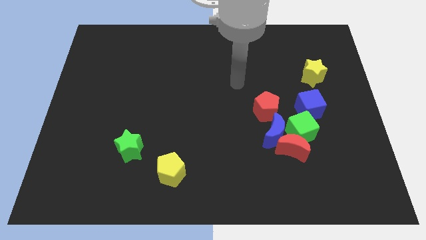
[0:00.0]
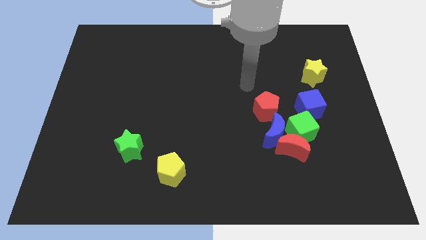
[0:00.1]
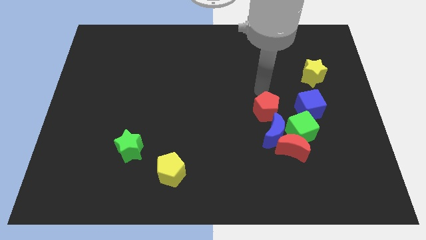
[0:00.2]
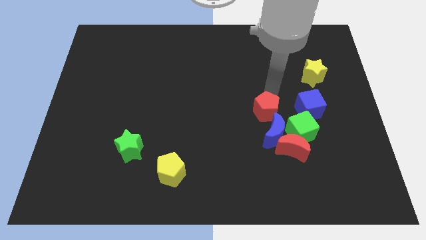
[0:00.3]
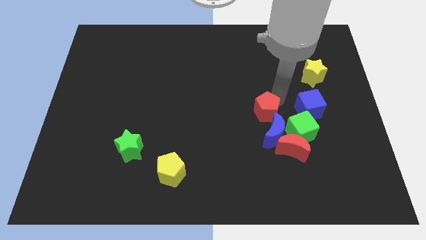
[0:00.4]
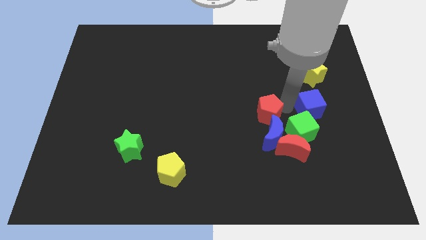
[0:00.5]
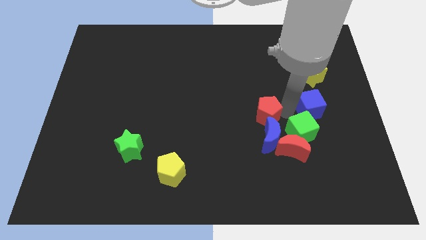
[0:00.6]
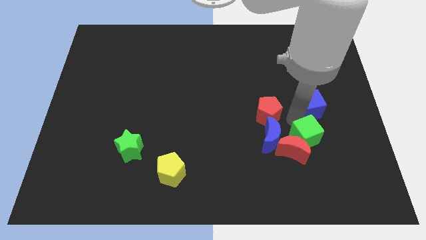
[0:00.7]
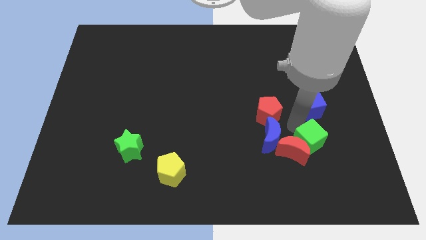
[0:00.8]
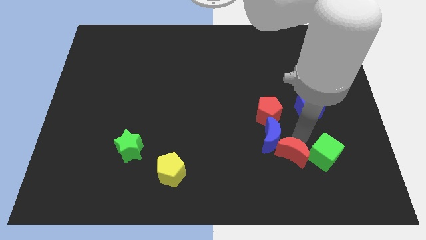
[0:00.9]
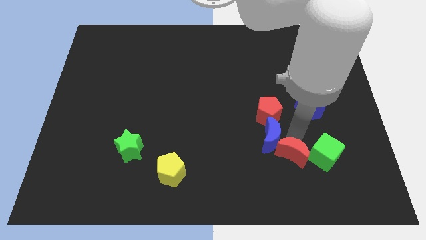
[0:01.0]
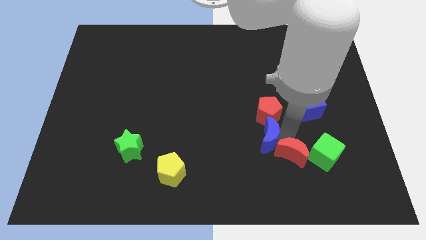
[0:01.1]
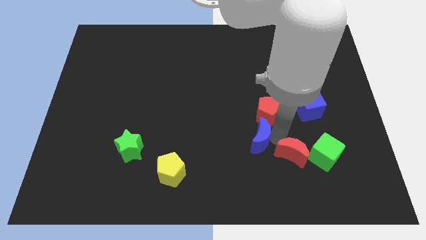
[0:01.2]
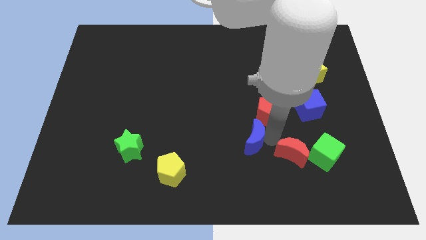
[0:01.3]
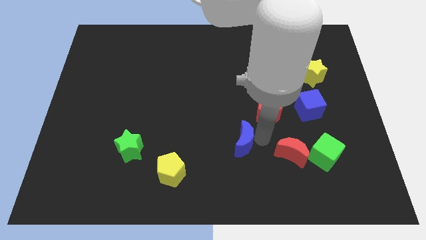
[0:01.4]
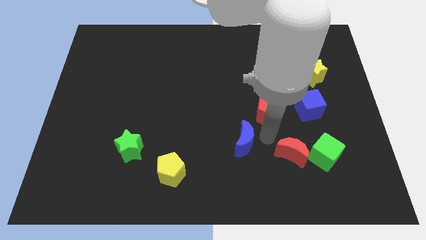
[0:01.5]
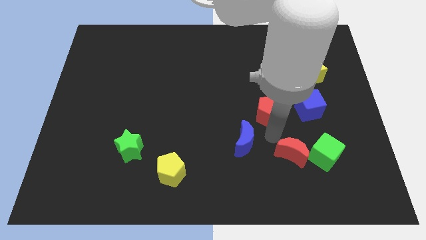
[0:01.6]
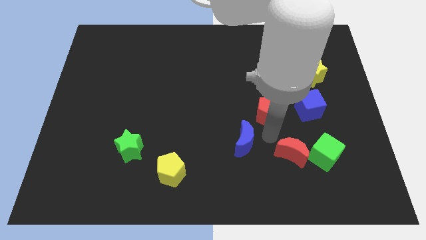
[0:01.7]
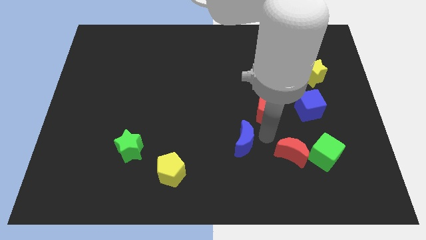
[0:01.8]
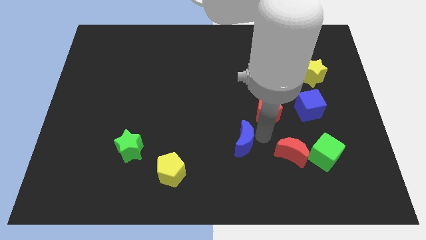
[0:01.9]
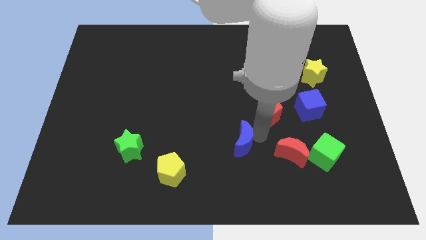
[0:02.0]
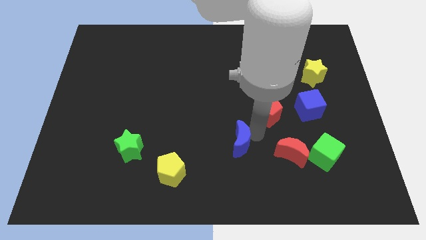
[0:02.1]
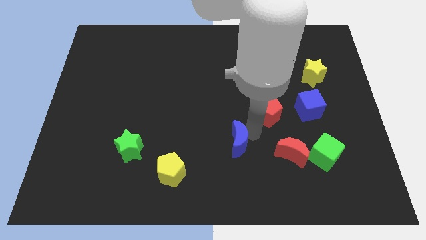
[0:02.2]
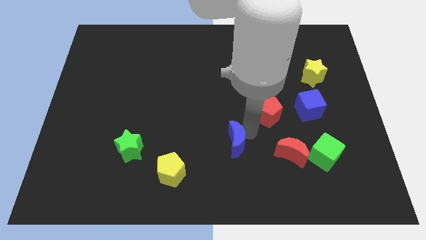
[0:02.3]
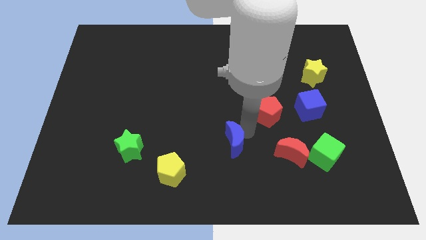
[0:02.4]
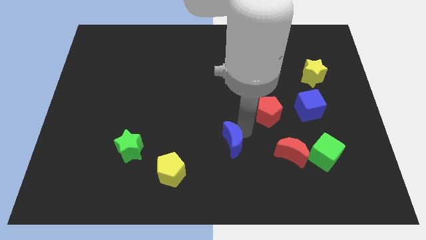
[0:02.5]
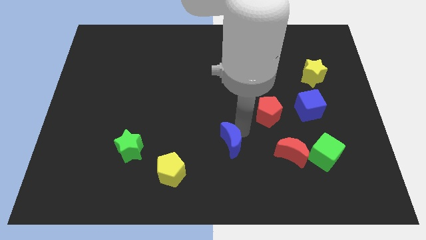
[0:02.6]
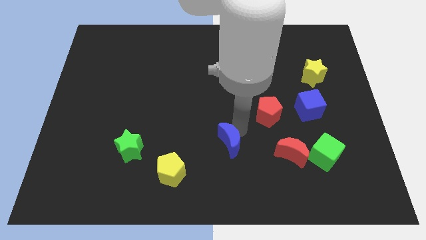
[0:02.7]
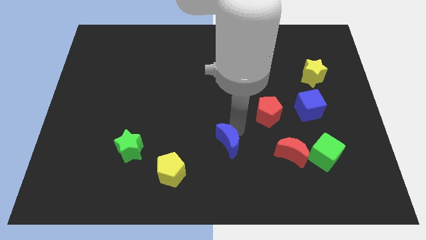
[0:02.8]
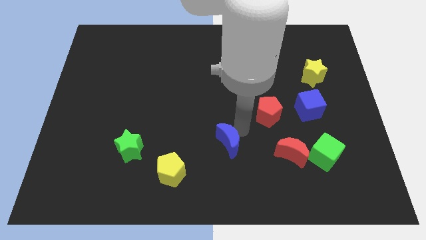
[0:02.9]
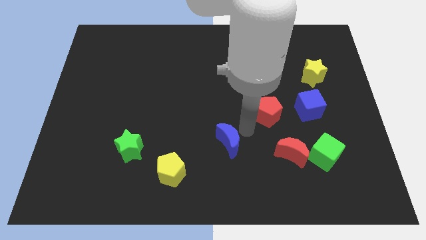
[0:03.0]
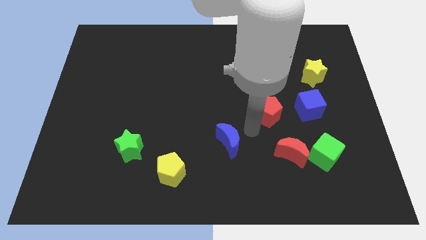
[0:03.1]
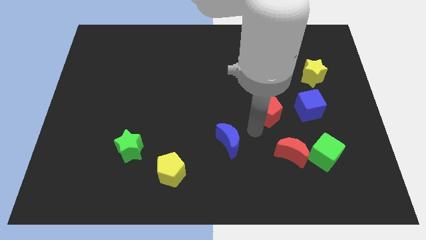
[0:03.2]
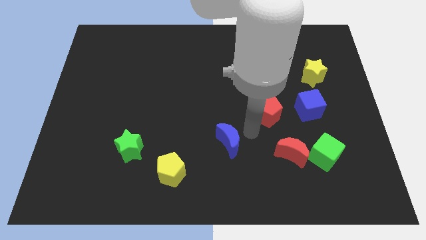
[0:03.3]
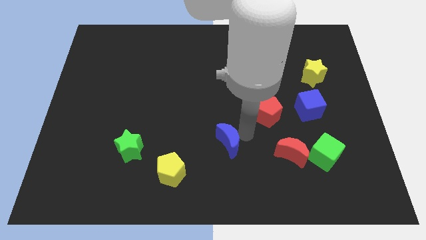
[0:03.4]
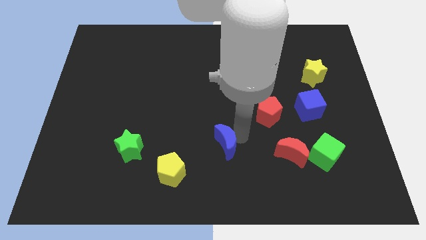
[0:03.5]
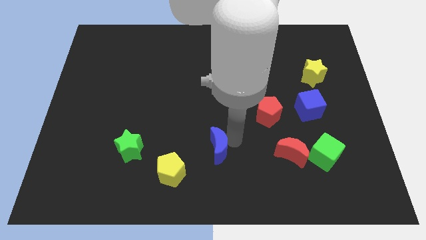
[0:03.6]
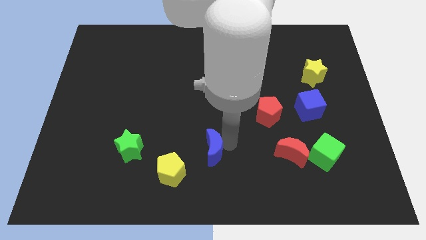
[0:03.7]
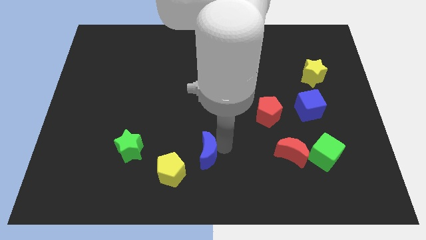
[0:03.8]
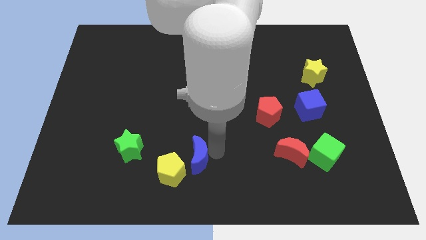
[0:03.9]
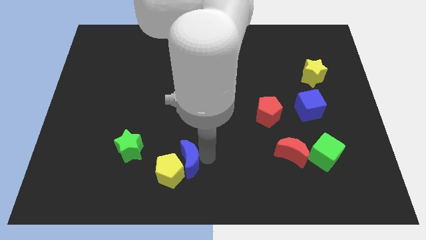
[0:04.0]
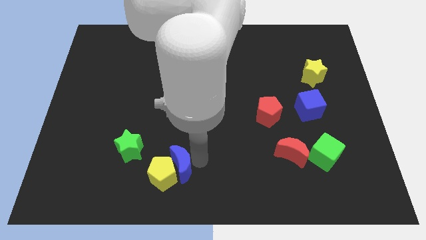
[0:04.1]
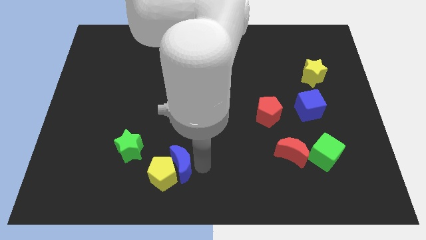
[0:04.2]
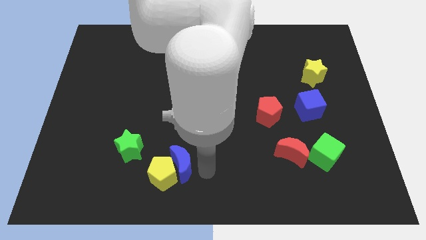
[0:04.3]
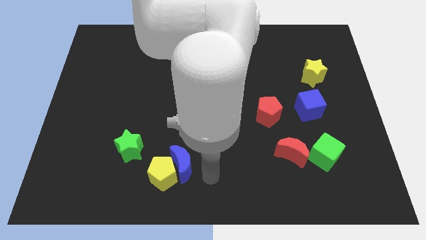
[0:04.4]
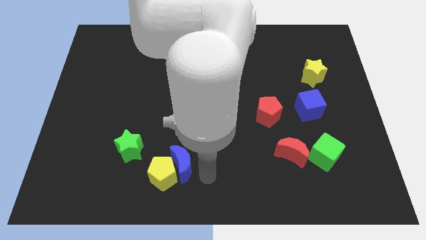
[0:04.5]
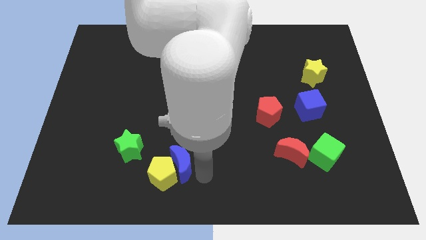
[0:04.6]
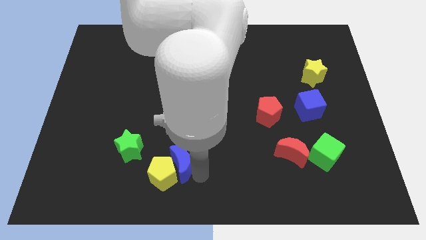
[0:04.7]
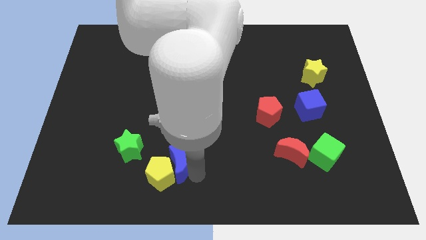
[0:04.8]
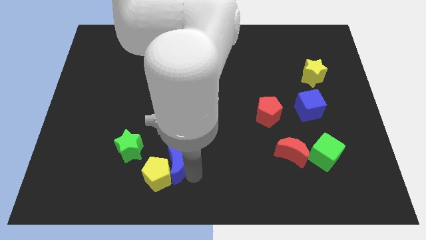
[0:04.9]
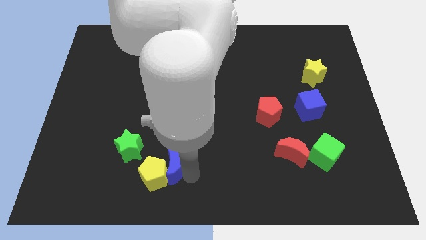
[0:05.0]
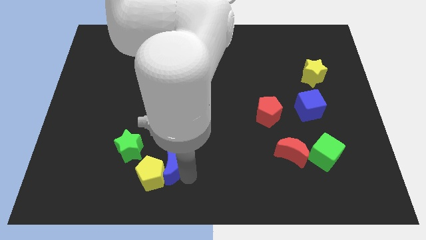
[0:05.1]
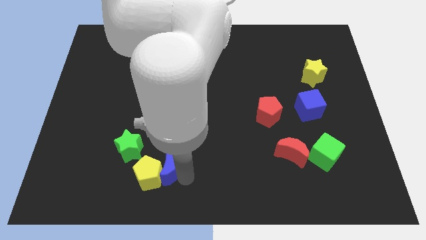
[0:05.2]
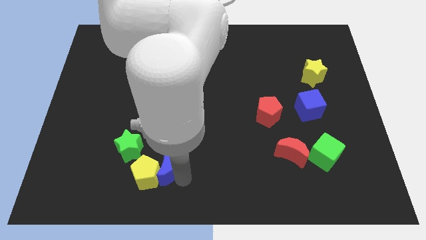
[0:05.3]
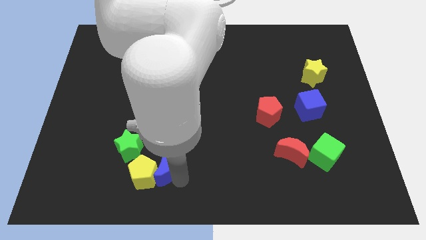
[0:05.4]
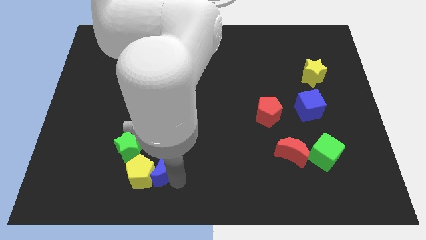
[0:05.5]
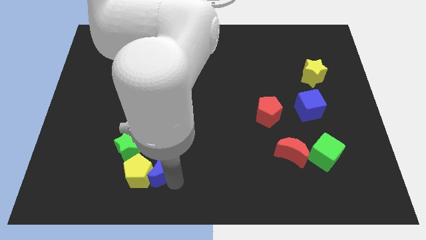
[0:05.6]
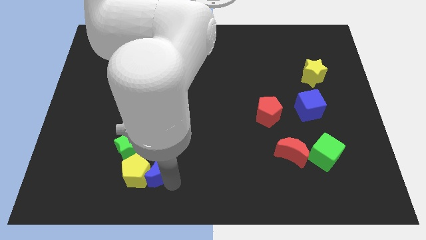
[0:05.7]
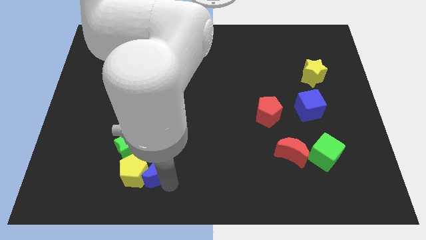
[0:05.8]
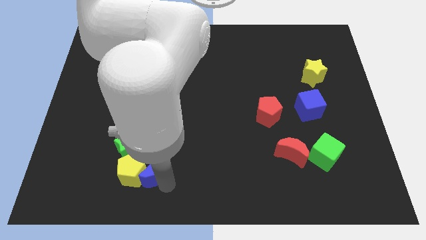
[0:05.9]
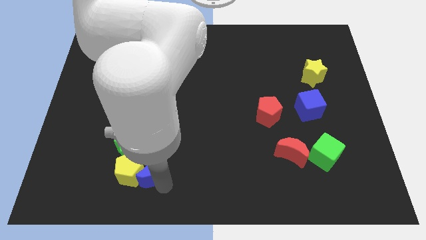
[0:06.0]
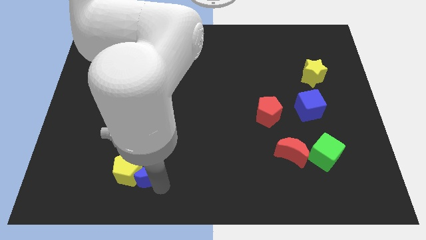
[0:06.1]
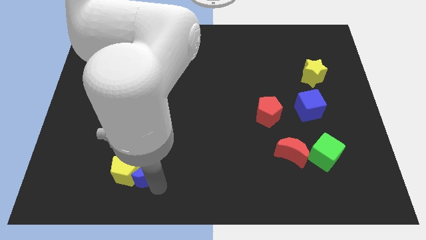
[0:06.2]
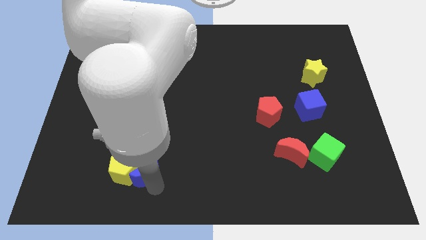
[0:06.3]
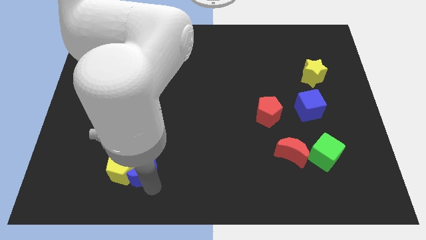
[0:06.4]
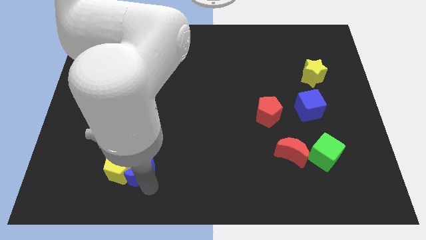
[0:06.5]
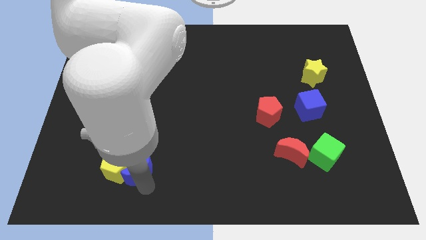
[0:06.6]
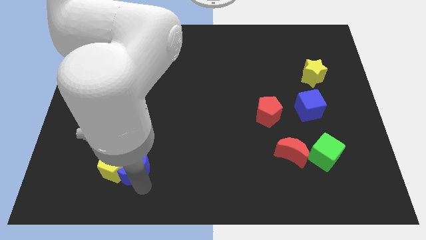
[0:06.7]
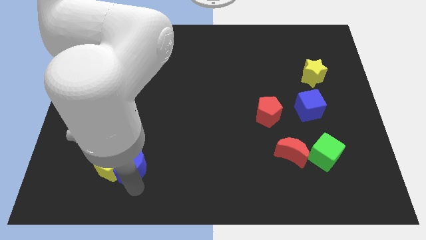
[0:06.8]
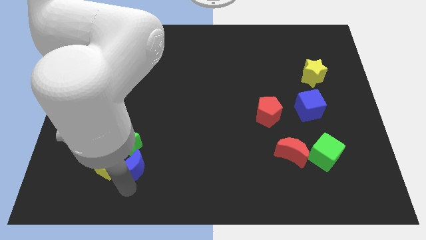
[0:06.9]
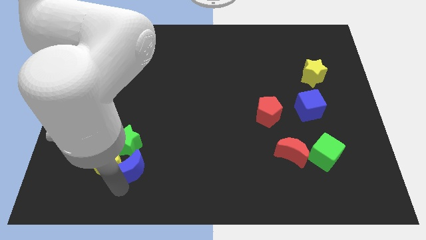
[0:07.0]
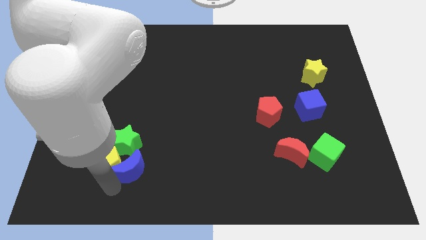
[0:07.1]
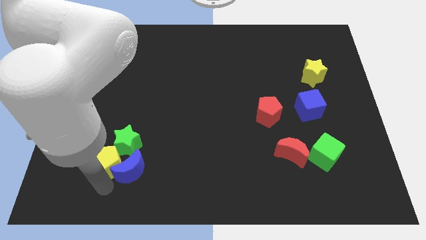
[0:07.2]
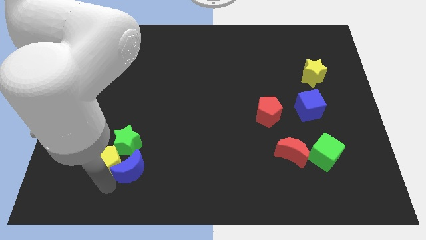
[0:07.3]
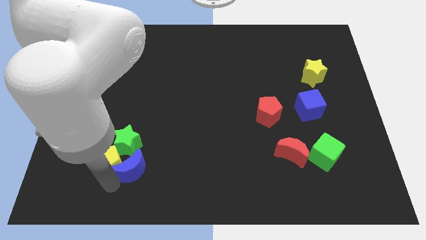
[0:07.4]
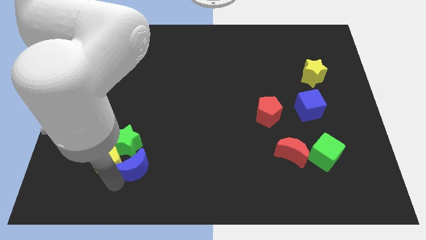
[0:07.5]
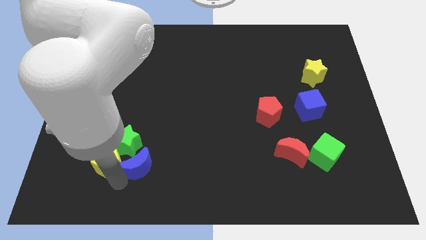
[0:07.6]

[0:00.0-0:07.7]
slide the blue moon close to the green star
